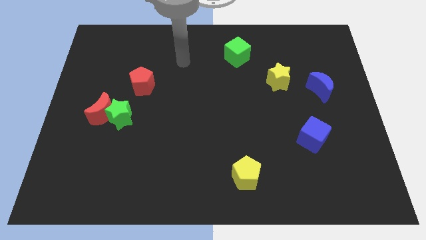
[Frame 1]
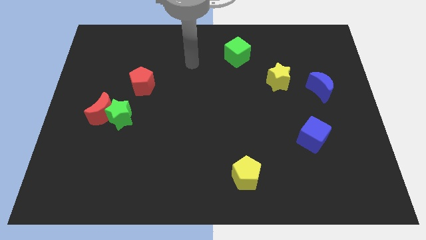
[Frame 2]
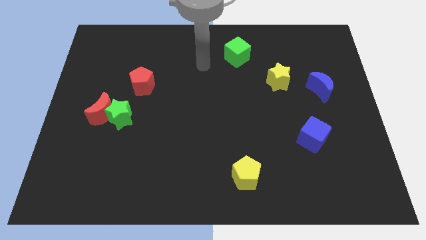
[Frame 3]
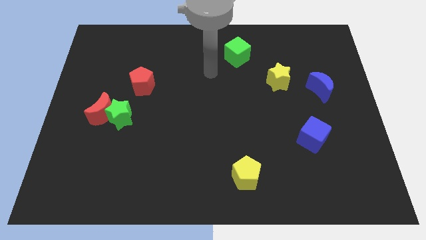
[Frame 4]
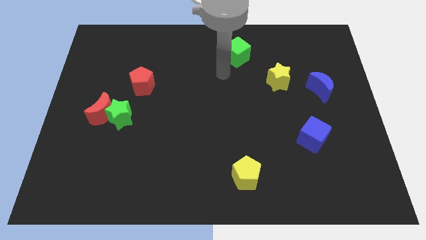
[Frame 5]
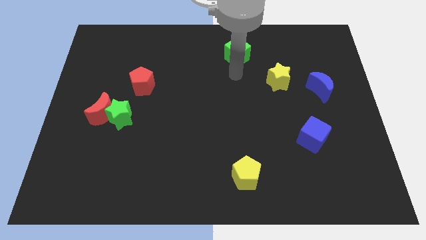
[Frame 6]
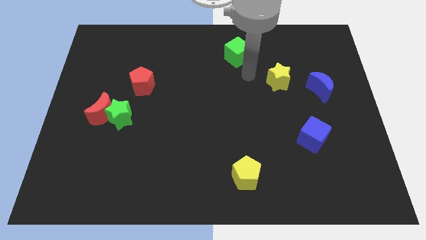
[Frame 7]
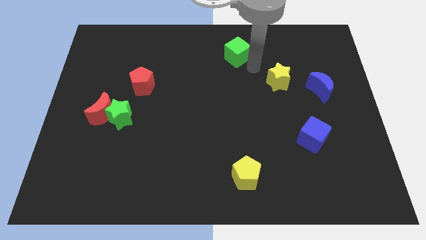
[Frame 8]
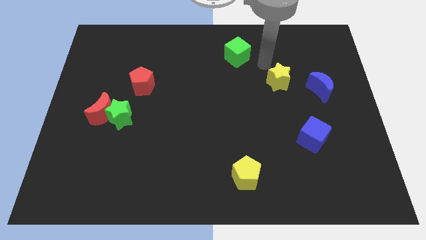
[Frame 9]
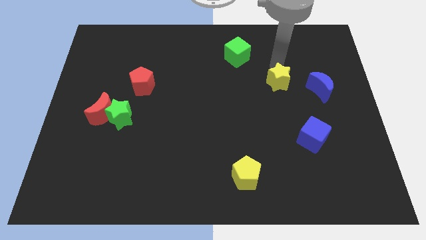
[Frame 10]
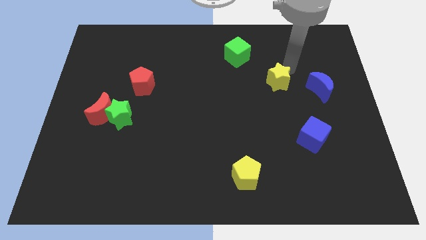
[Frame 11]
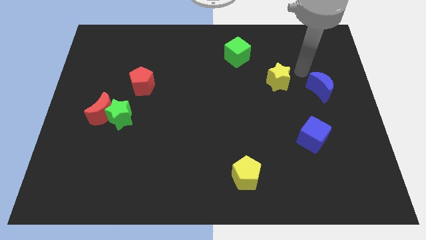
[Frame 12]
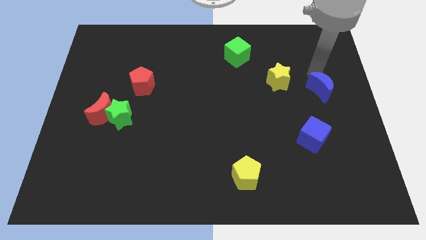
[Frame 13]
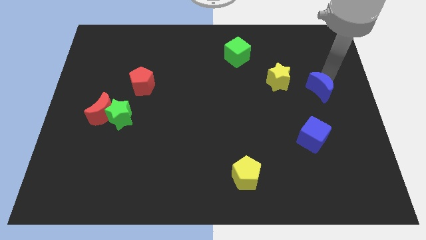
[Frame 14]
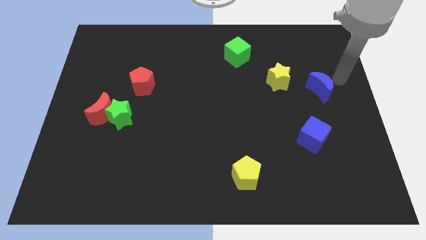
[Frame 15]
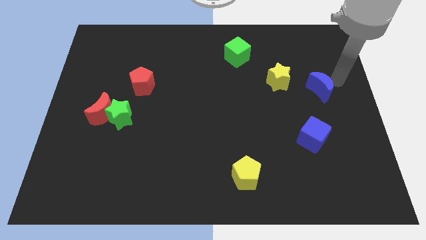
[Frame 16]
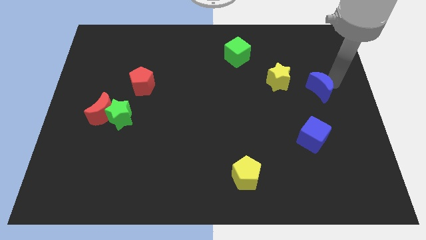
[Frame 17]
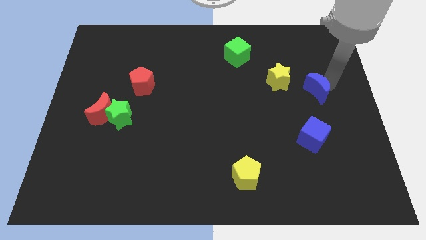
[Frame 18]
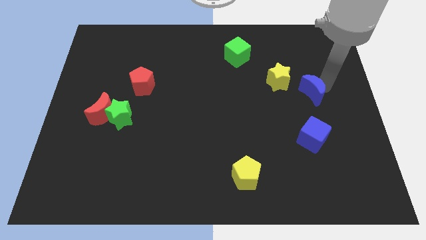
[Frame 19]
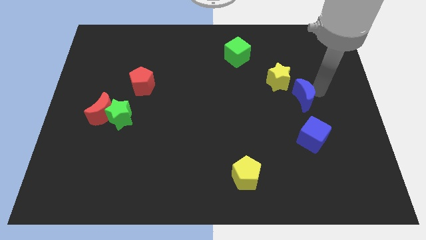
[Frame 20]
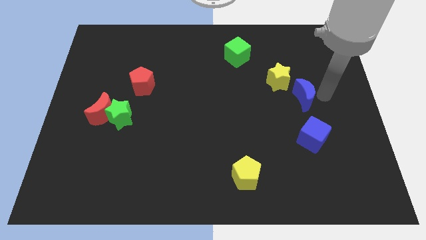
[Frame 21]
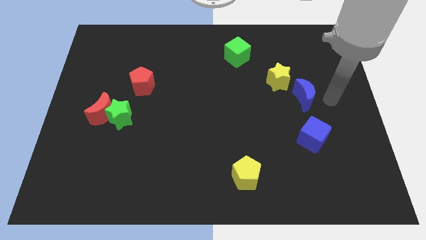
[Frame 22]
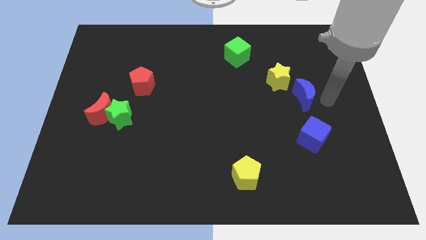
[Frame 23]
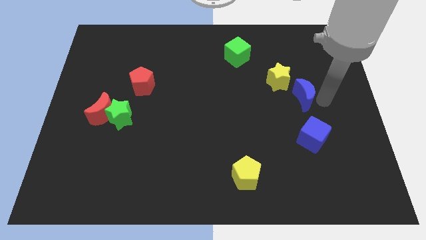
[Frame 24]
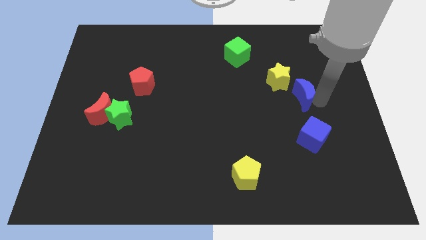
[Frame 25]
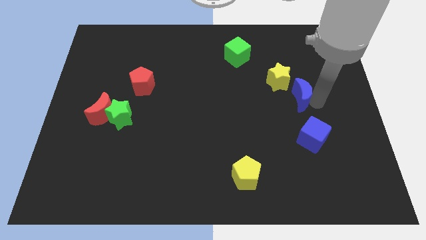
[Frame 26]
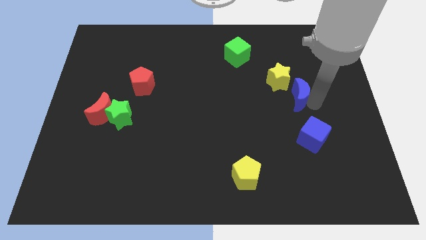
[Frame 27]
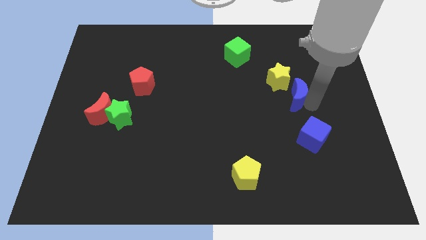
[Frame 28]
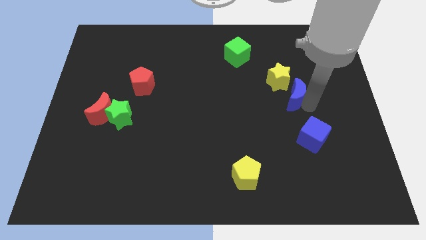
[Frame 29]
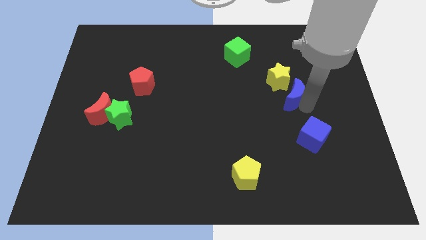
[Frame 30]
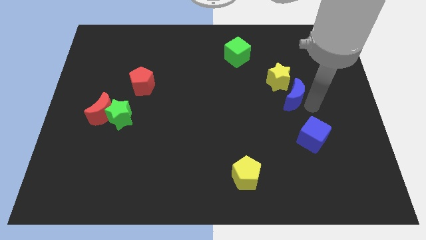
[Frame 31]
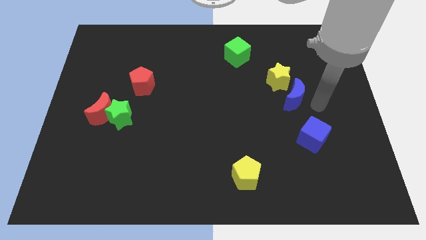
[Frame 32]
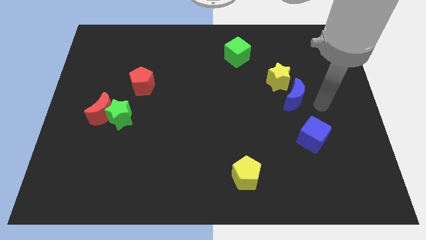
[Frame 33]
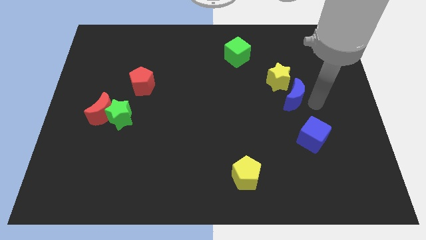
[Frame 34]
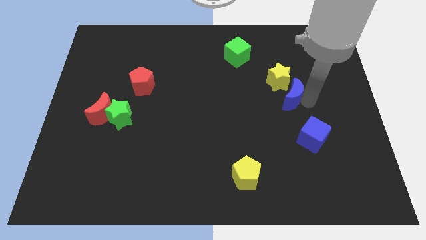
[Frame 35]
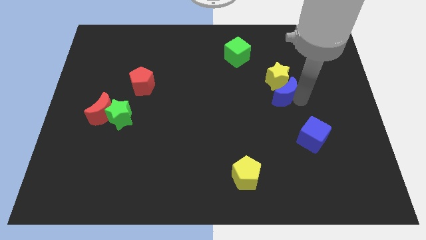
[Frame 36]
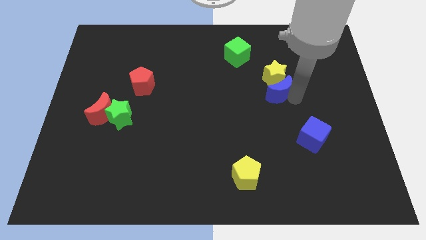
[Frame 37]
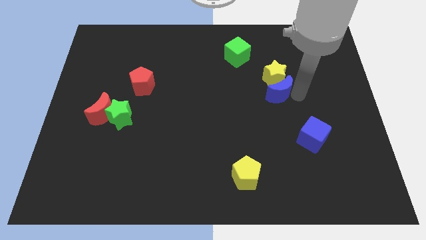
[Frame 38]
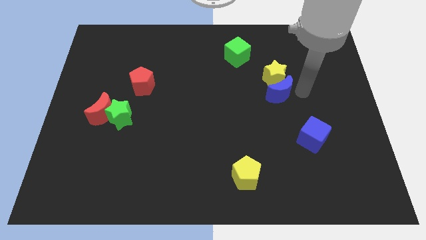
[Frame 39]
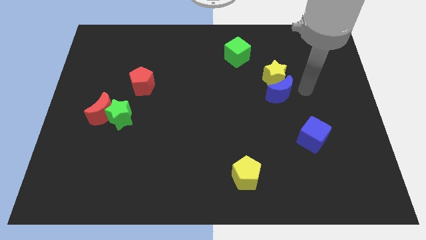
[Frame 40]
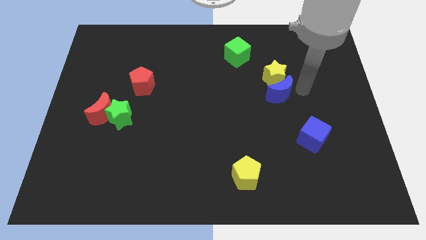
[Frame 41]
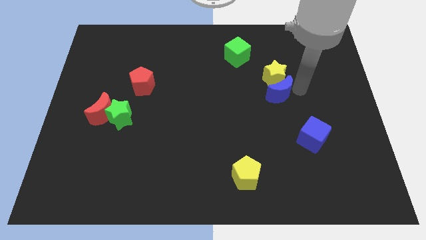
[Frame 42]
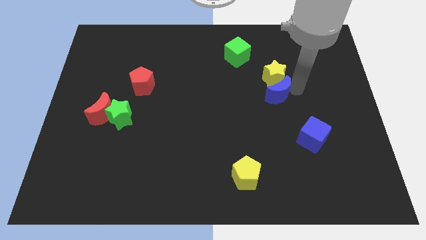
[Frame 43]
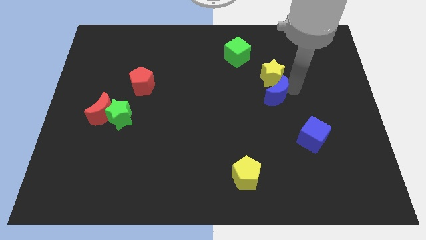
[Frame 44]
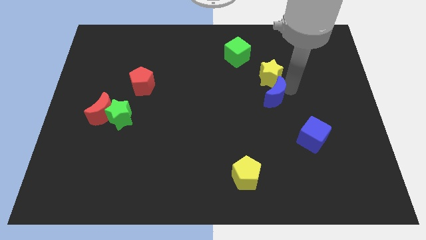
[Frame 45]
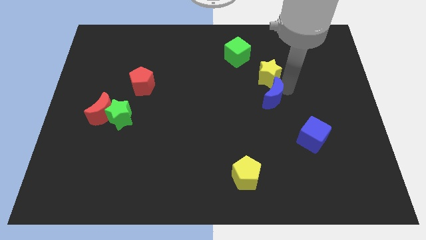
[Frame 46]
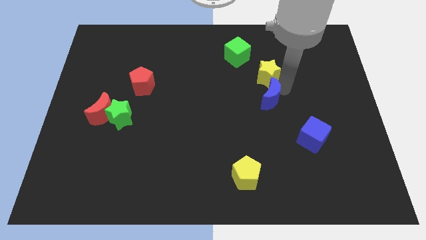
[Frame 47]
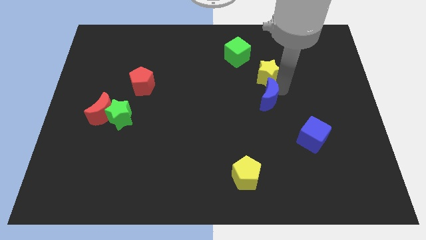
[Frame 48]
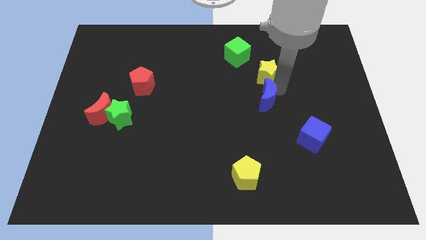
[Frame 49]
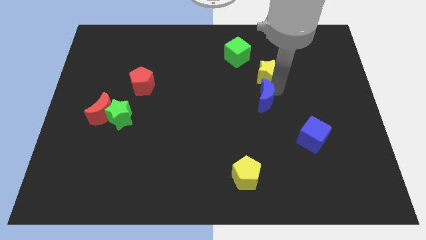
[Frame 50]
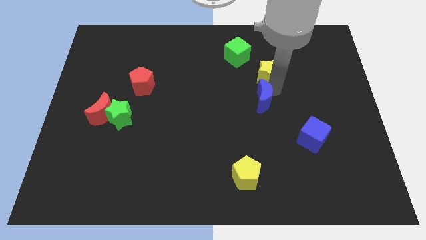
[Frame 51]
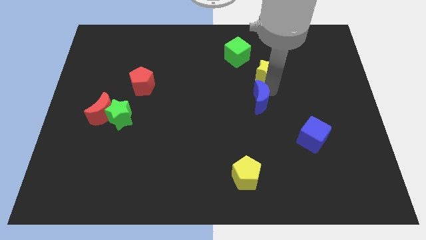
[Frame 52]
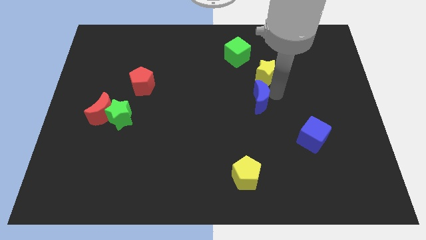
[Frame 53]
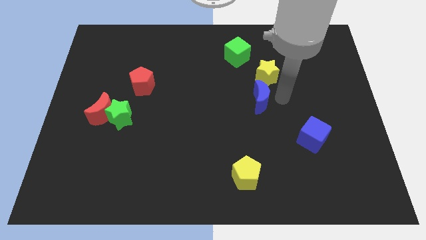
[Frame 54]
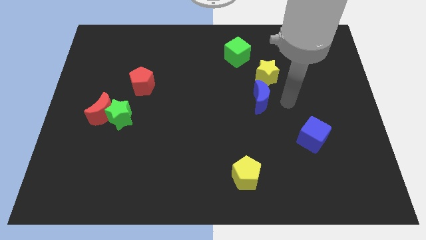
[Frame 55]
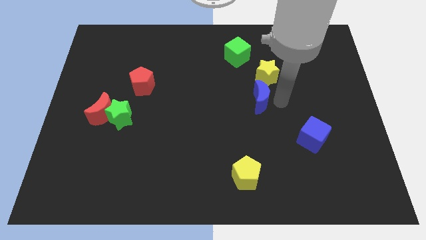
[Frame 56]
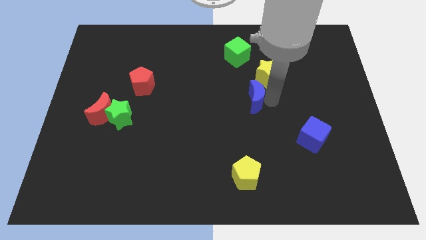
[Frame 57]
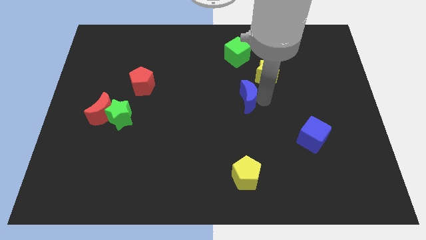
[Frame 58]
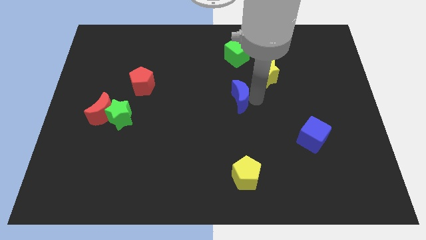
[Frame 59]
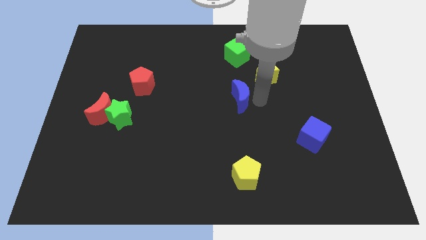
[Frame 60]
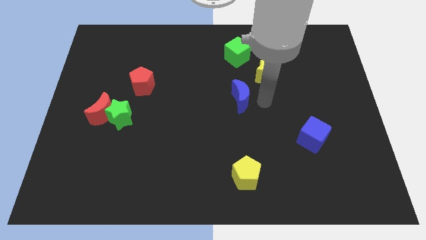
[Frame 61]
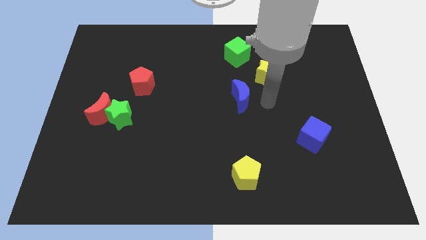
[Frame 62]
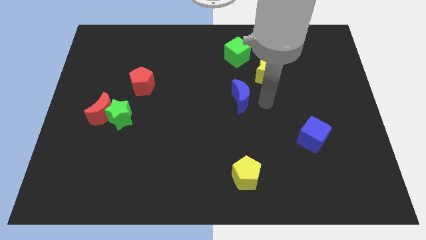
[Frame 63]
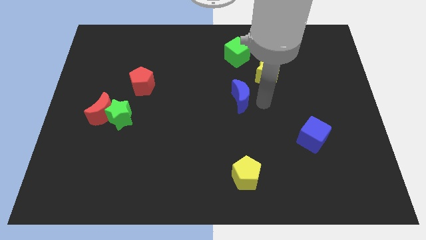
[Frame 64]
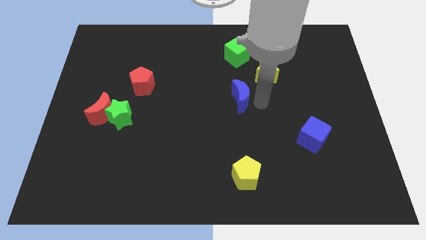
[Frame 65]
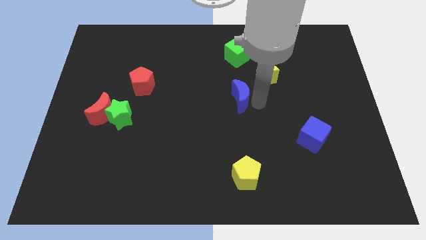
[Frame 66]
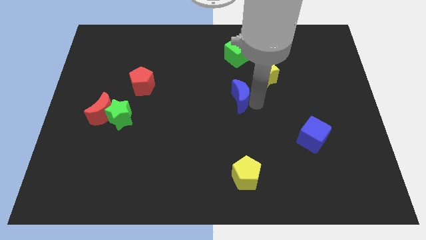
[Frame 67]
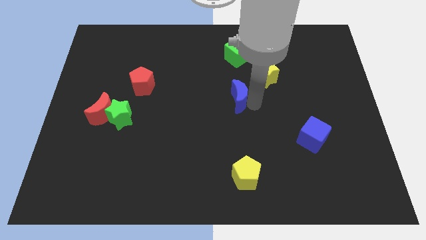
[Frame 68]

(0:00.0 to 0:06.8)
move the blue moon left

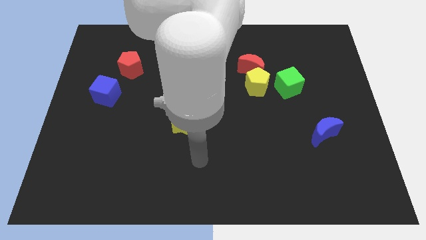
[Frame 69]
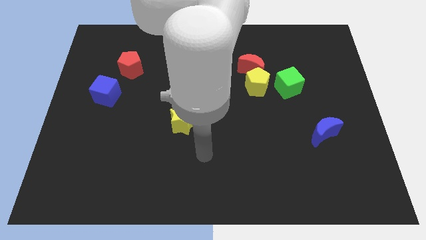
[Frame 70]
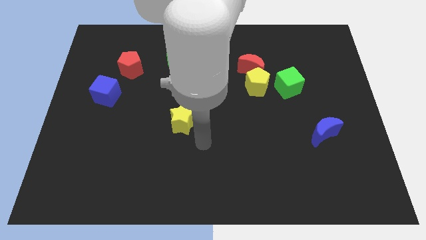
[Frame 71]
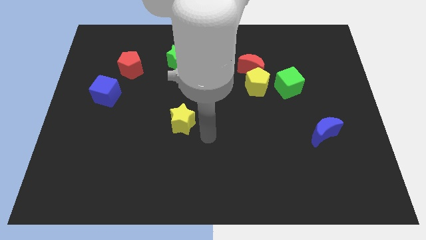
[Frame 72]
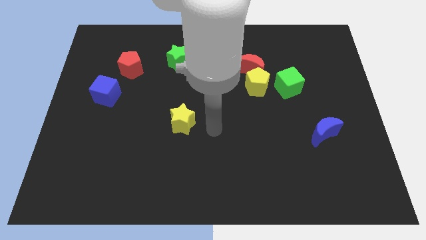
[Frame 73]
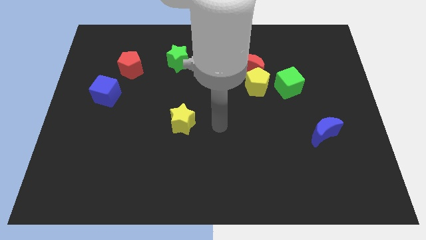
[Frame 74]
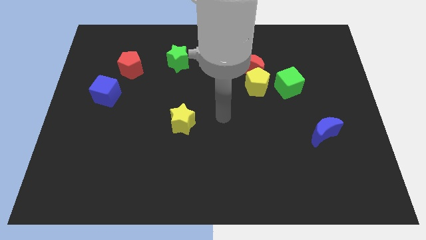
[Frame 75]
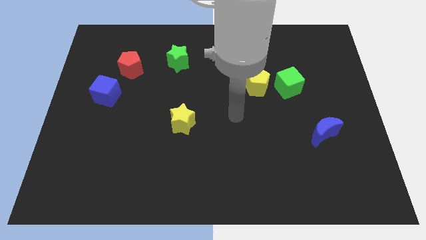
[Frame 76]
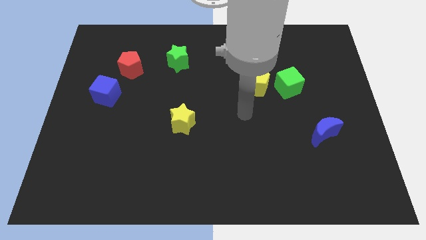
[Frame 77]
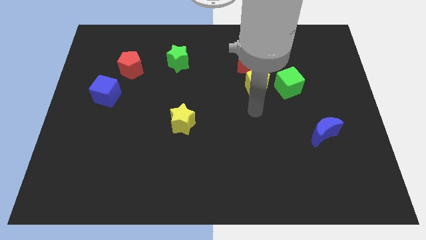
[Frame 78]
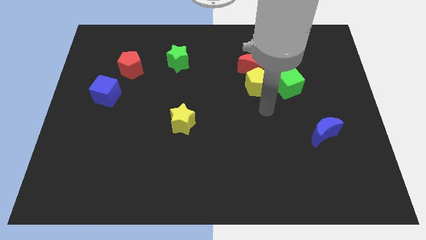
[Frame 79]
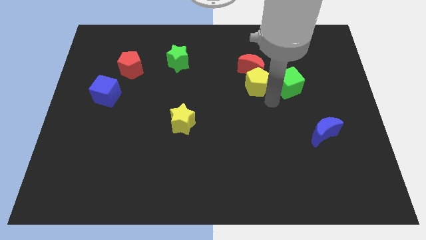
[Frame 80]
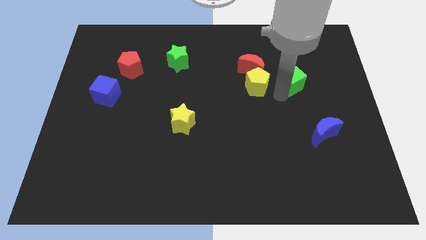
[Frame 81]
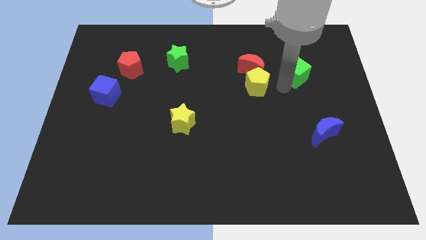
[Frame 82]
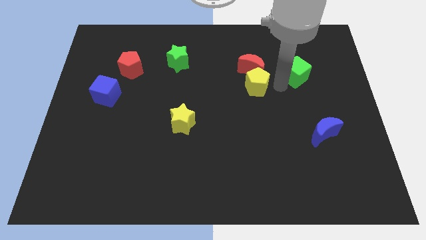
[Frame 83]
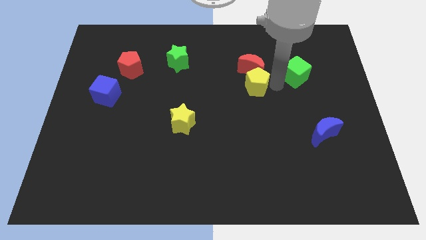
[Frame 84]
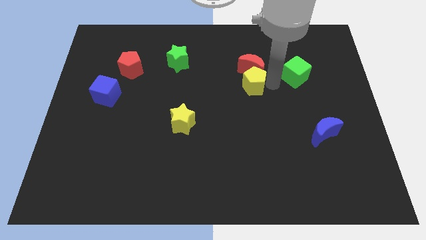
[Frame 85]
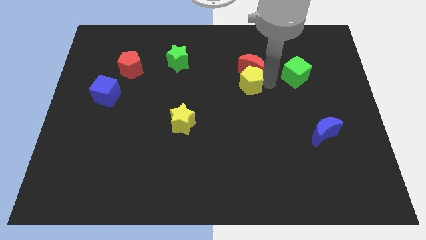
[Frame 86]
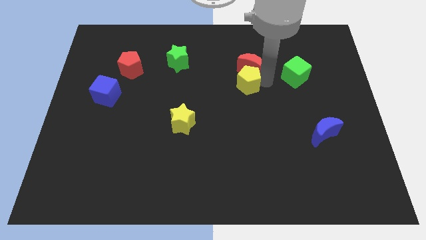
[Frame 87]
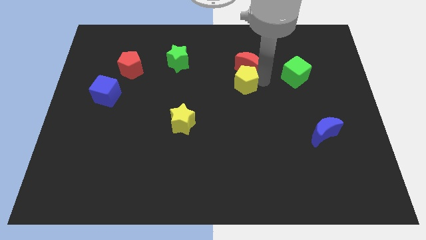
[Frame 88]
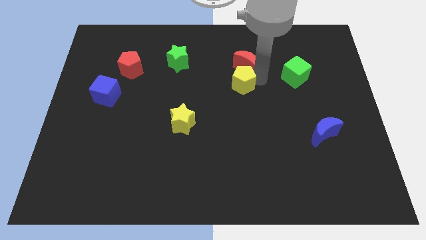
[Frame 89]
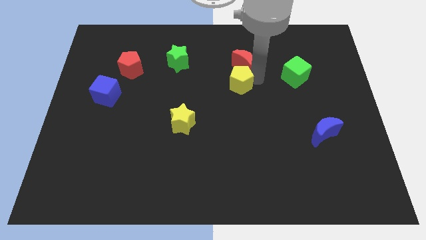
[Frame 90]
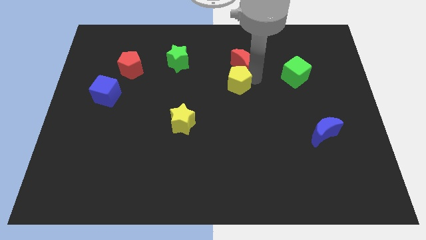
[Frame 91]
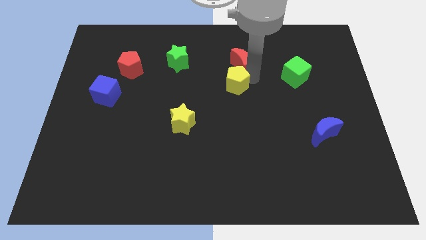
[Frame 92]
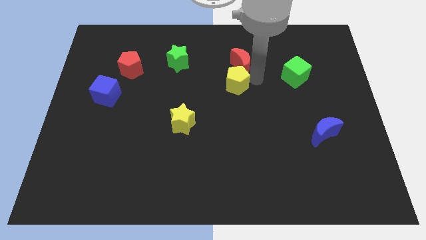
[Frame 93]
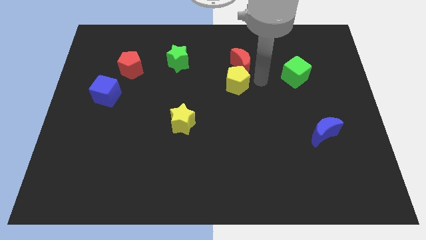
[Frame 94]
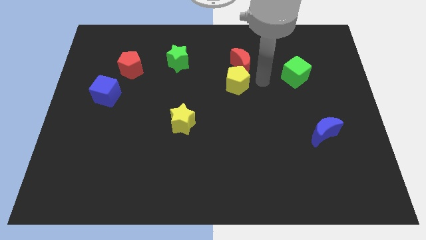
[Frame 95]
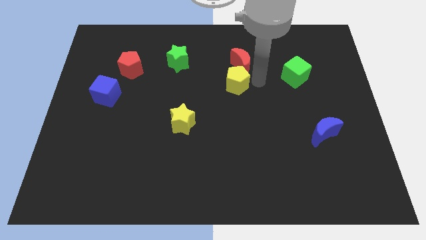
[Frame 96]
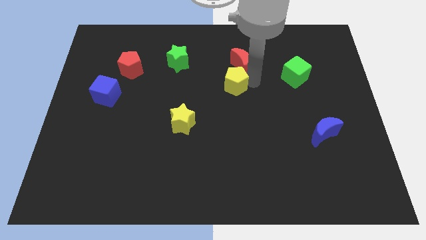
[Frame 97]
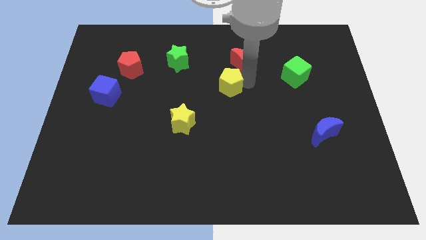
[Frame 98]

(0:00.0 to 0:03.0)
move the yellow pentagon left slightly
